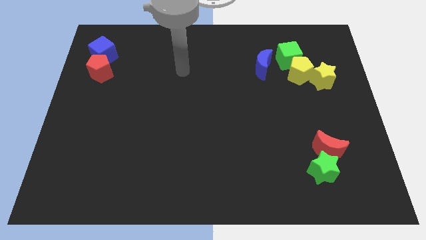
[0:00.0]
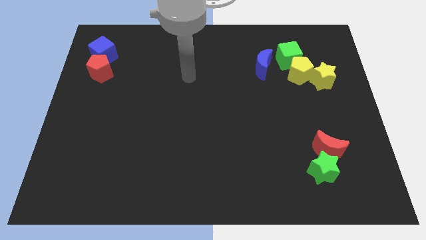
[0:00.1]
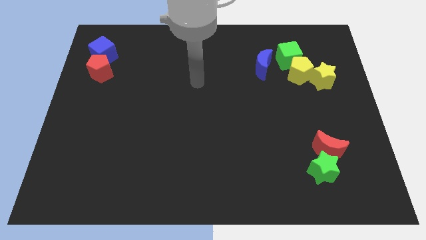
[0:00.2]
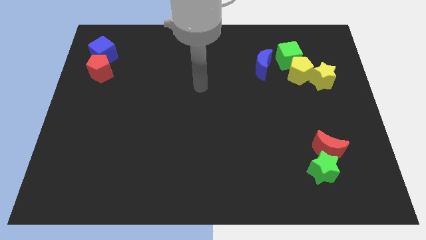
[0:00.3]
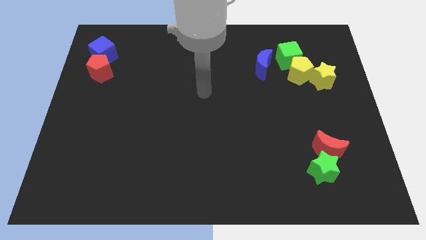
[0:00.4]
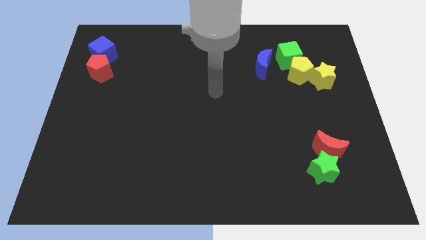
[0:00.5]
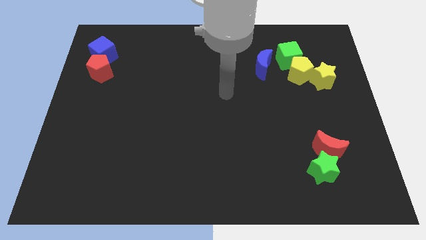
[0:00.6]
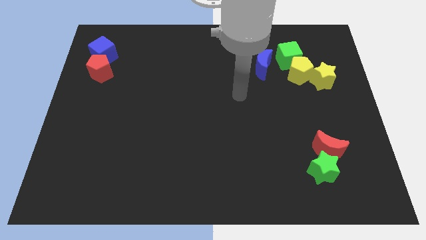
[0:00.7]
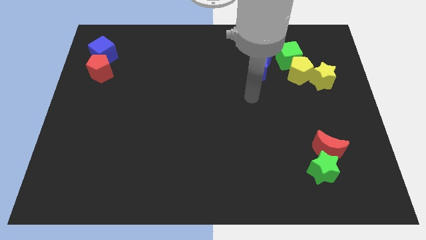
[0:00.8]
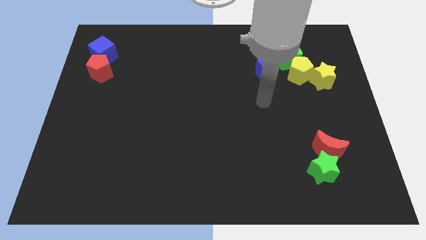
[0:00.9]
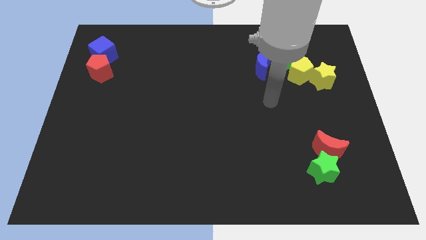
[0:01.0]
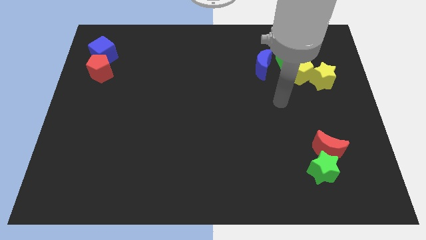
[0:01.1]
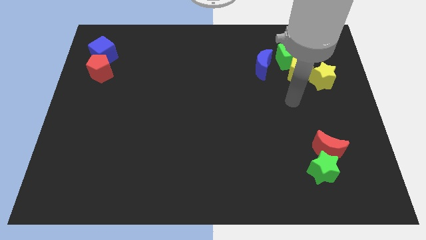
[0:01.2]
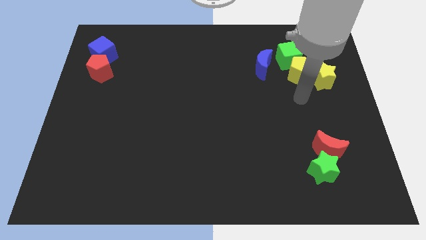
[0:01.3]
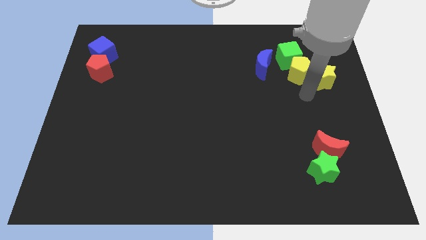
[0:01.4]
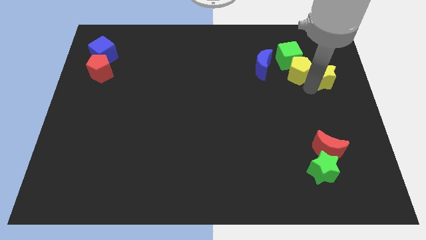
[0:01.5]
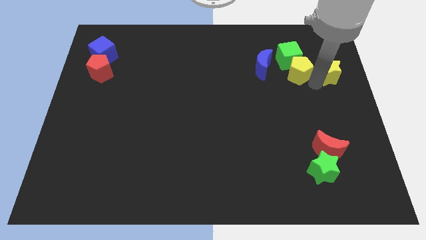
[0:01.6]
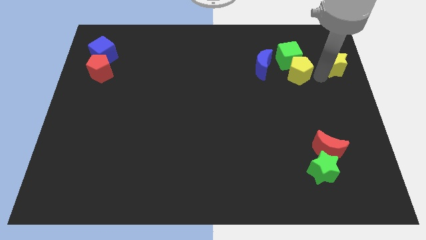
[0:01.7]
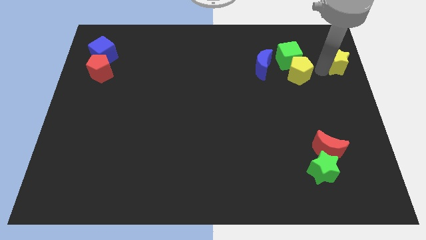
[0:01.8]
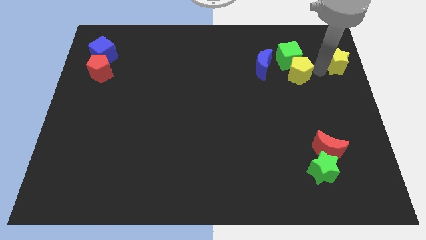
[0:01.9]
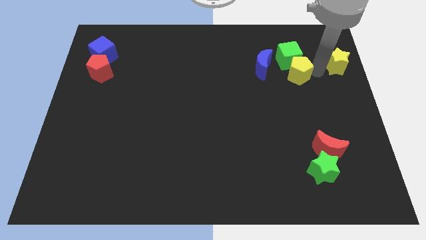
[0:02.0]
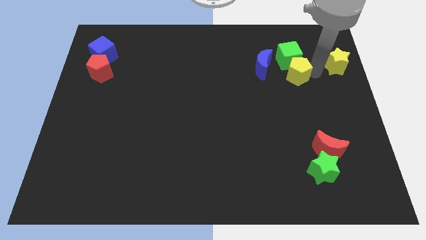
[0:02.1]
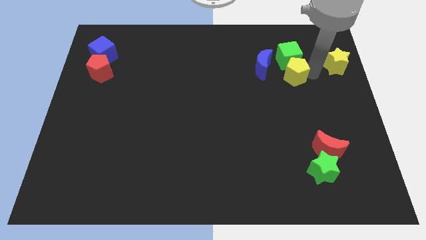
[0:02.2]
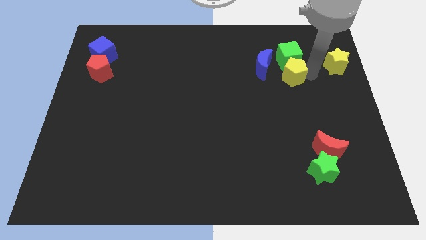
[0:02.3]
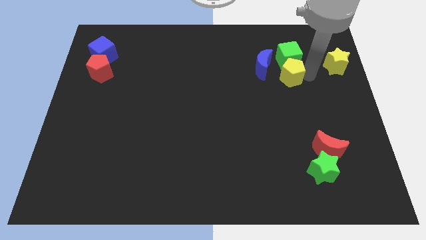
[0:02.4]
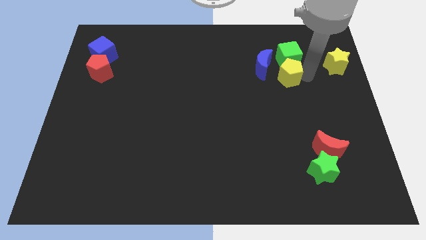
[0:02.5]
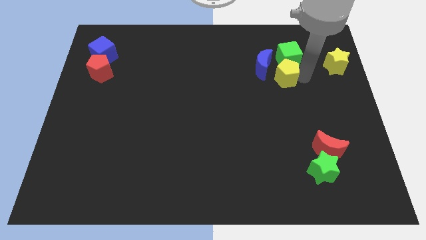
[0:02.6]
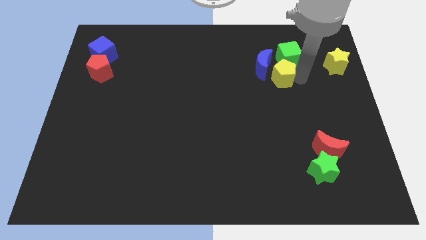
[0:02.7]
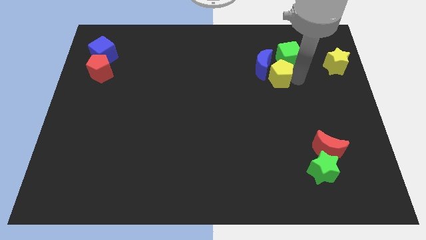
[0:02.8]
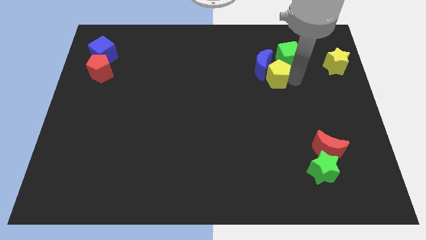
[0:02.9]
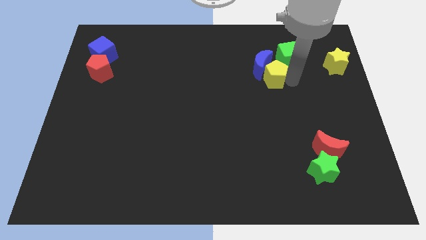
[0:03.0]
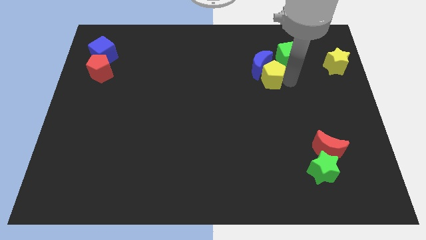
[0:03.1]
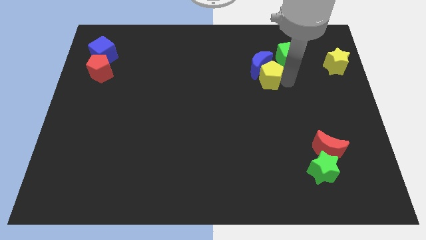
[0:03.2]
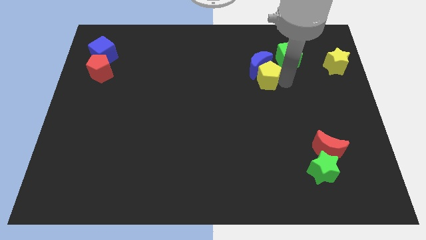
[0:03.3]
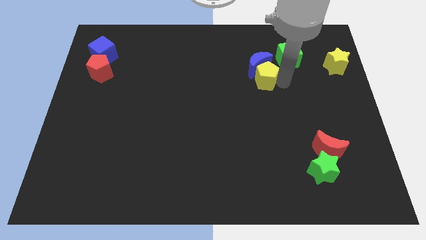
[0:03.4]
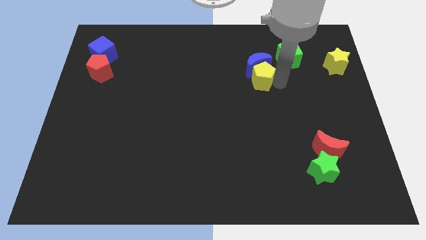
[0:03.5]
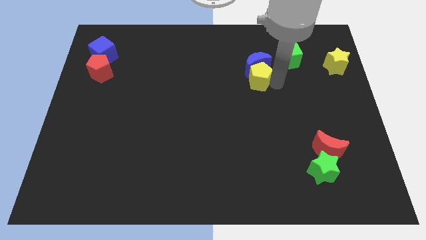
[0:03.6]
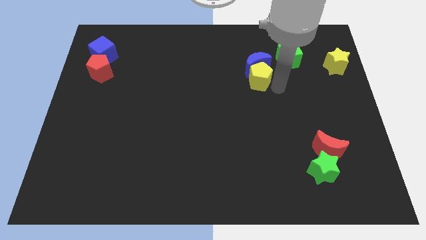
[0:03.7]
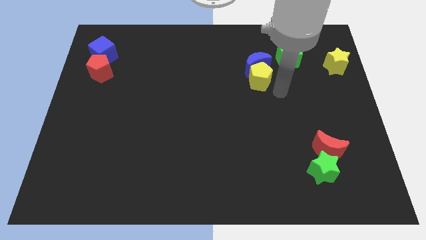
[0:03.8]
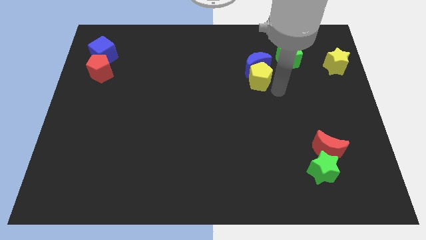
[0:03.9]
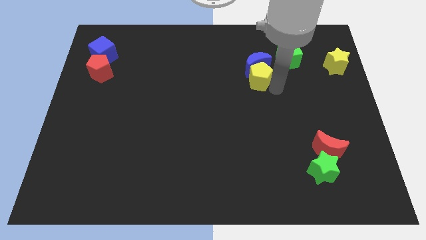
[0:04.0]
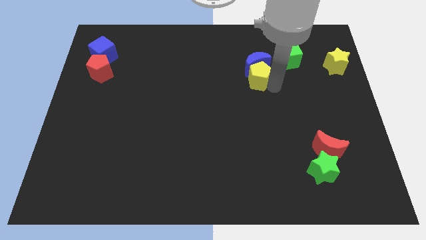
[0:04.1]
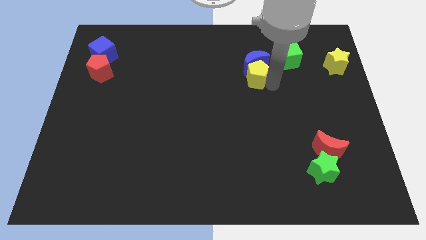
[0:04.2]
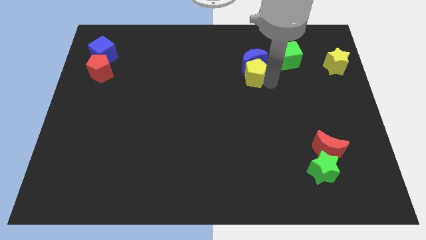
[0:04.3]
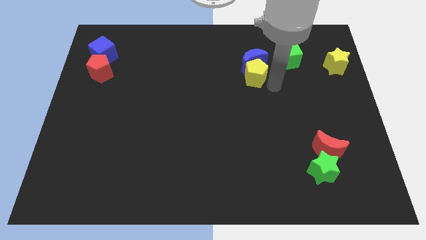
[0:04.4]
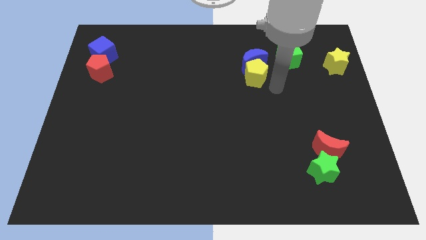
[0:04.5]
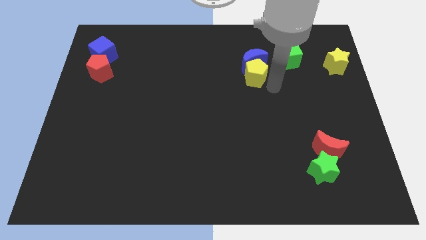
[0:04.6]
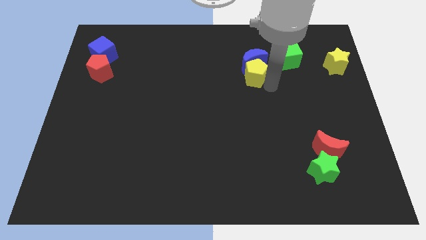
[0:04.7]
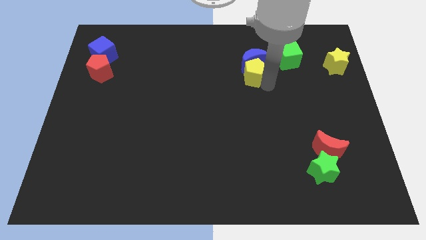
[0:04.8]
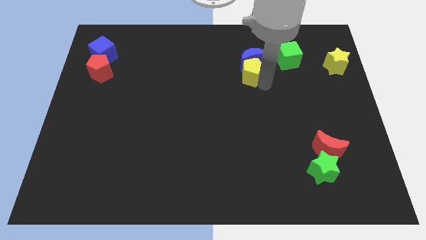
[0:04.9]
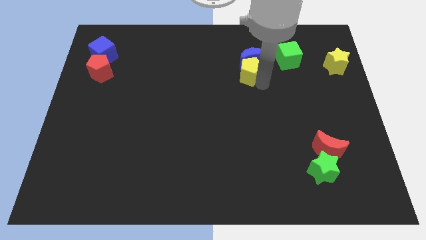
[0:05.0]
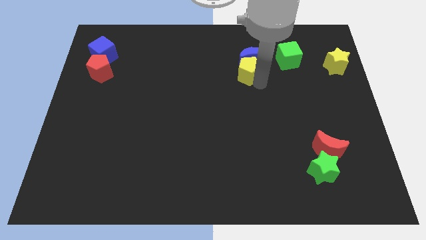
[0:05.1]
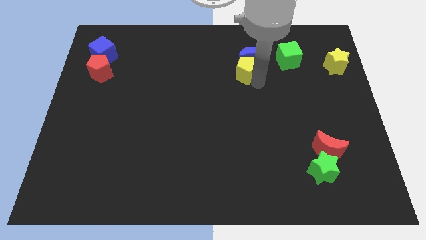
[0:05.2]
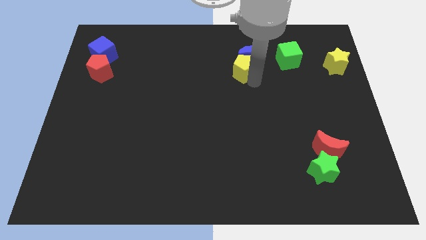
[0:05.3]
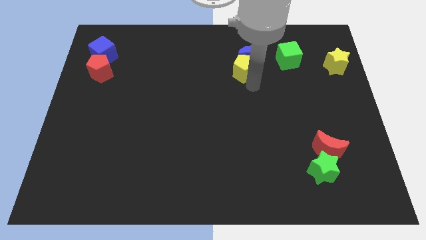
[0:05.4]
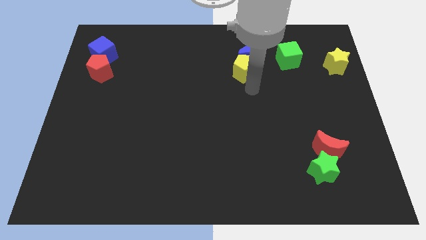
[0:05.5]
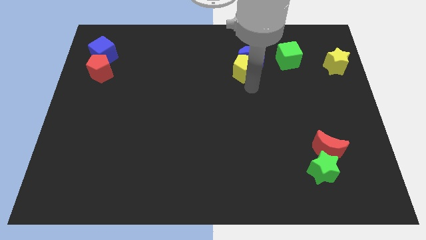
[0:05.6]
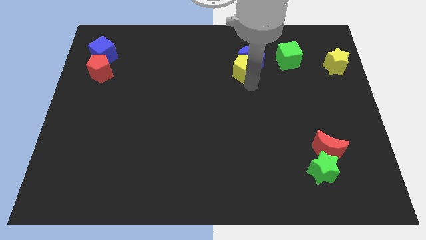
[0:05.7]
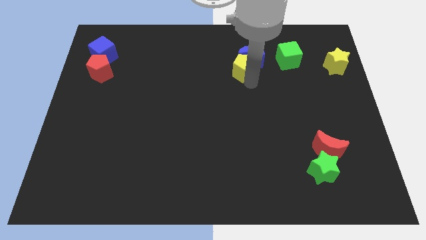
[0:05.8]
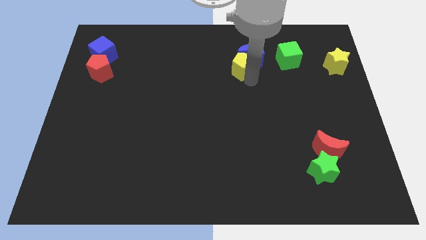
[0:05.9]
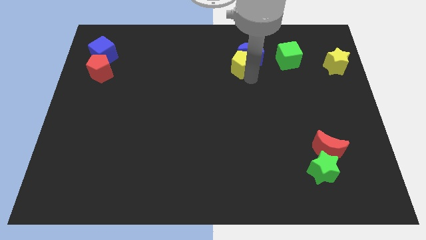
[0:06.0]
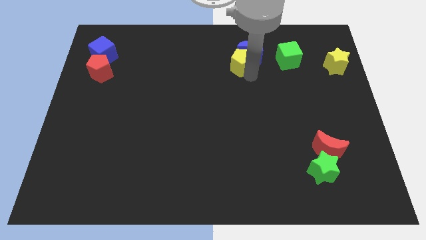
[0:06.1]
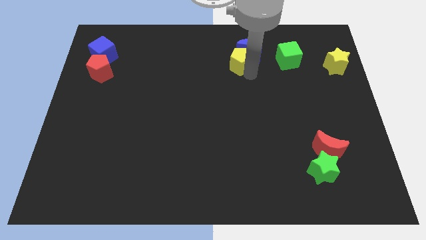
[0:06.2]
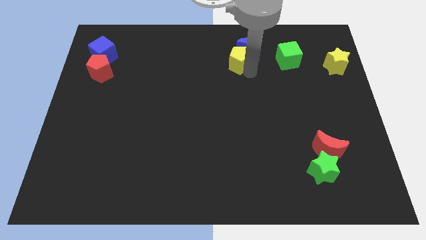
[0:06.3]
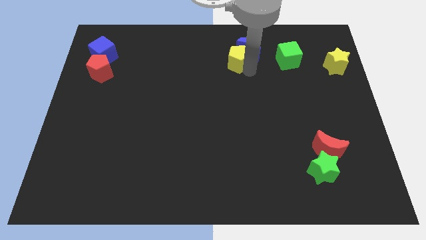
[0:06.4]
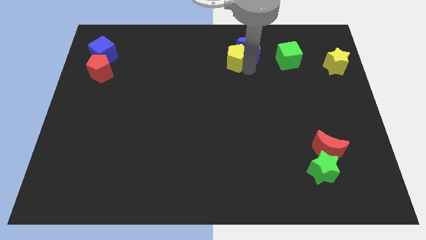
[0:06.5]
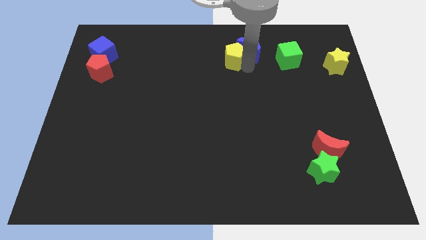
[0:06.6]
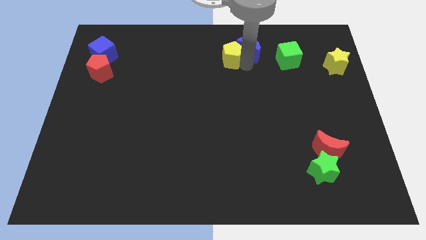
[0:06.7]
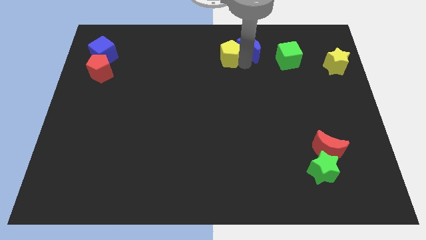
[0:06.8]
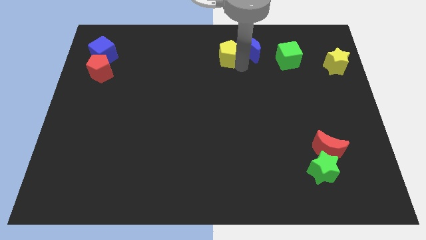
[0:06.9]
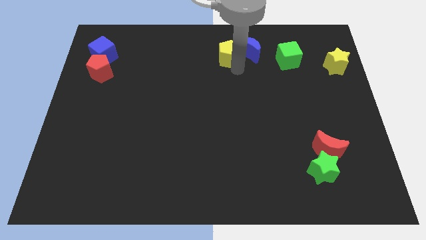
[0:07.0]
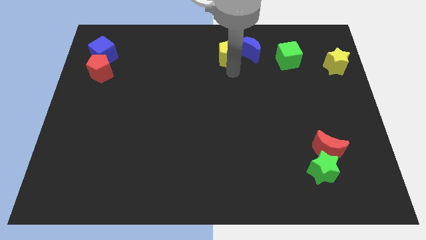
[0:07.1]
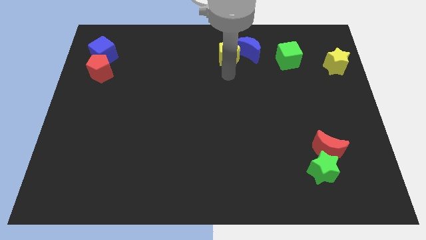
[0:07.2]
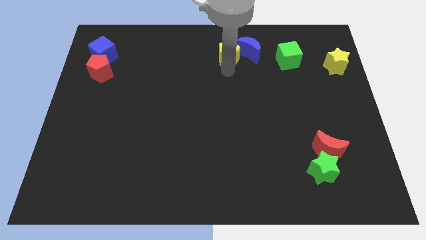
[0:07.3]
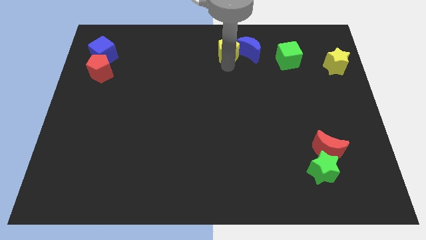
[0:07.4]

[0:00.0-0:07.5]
push the yellow pentagon to the top

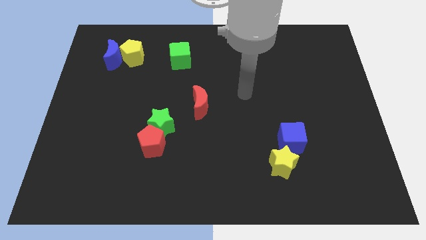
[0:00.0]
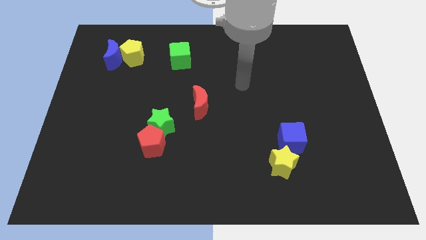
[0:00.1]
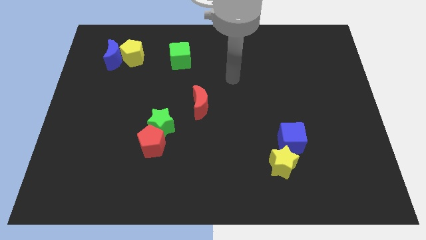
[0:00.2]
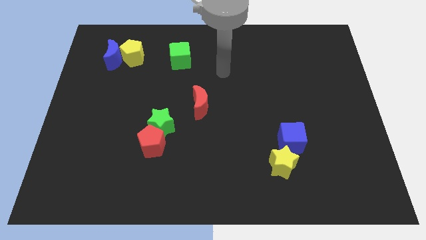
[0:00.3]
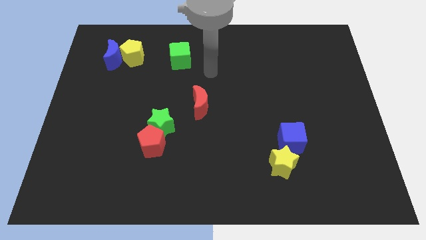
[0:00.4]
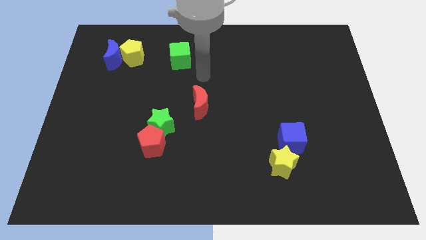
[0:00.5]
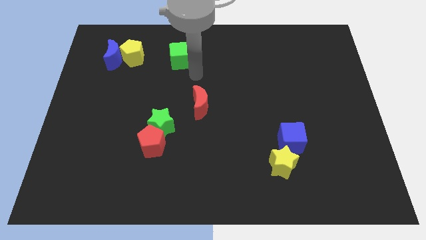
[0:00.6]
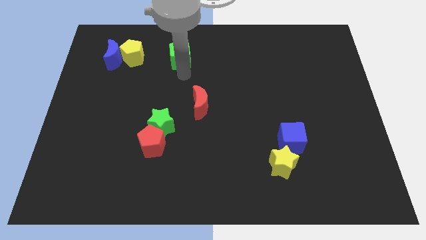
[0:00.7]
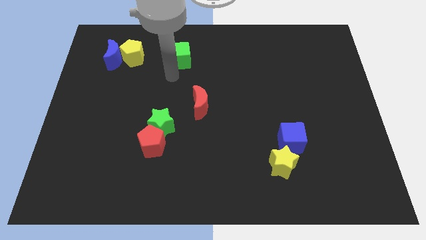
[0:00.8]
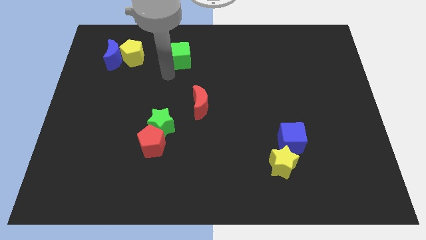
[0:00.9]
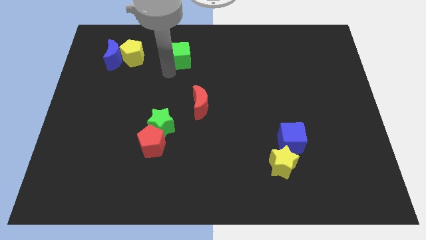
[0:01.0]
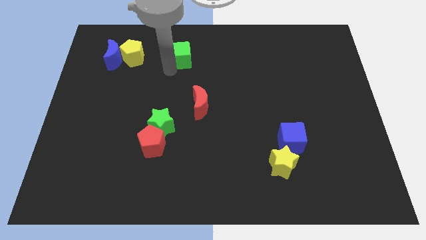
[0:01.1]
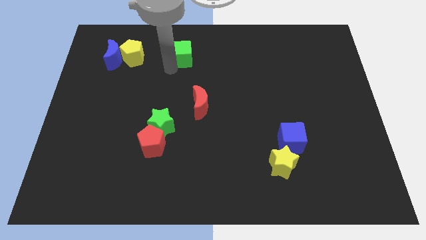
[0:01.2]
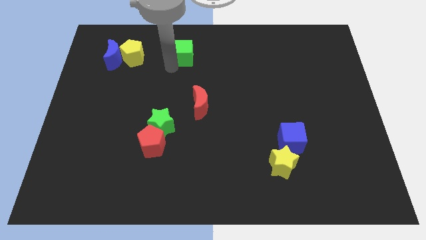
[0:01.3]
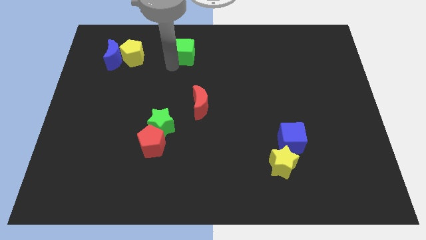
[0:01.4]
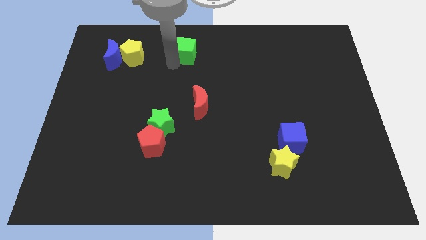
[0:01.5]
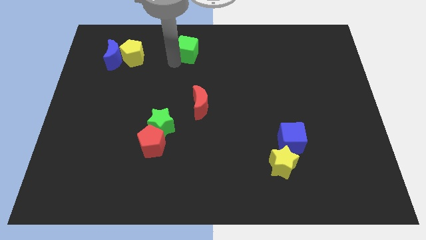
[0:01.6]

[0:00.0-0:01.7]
move the green cube to the towards your base
